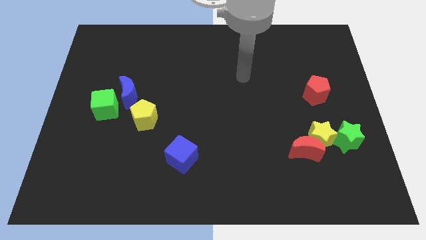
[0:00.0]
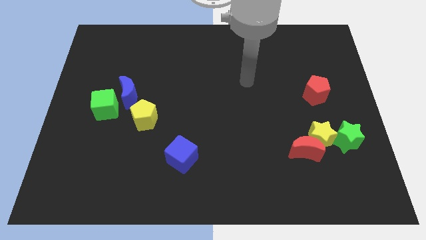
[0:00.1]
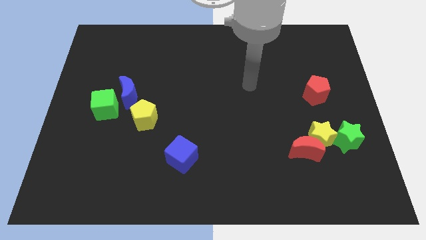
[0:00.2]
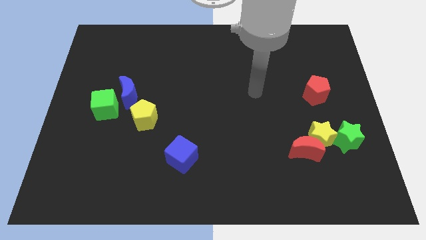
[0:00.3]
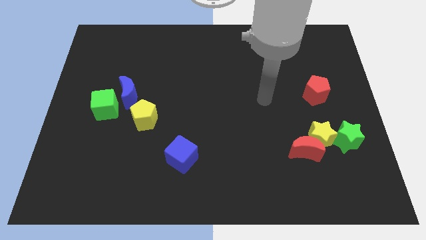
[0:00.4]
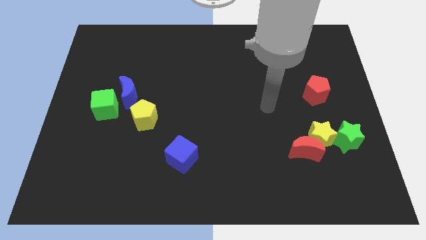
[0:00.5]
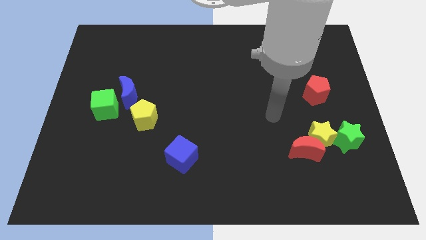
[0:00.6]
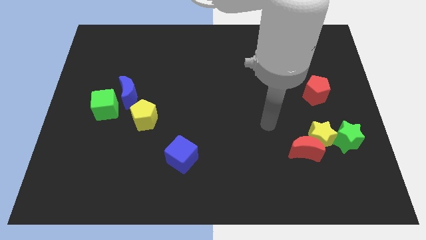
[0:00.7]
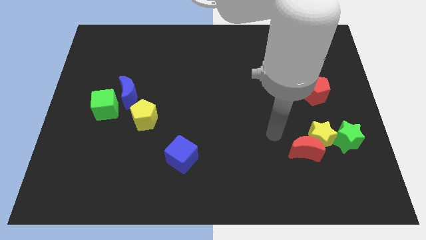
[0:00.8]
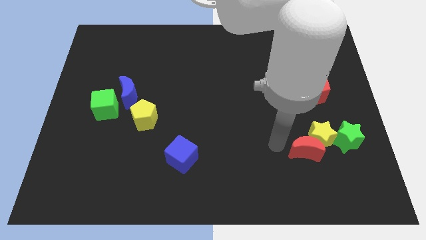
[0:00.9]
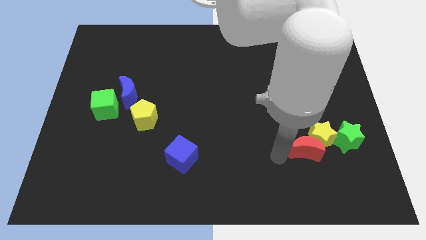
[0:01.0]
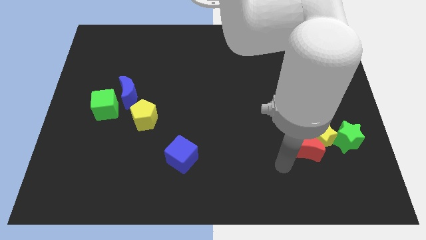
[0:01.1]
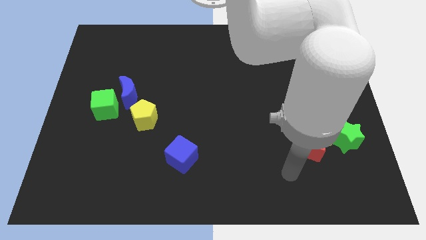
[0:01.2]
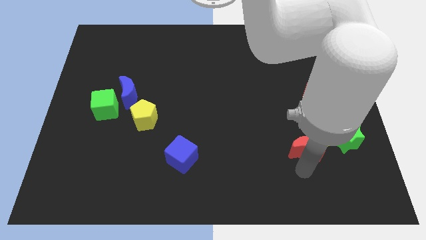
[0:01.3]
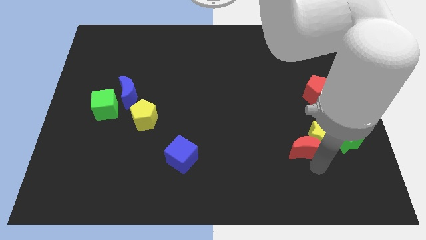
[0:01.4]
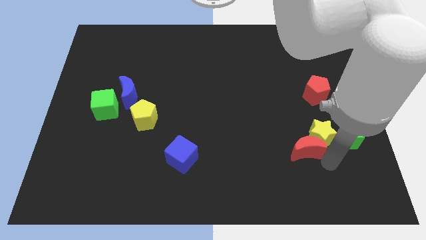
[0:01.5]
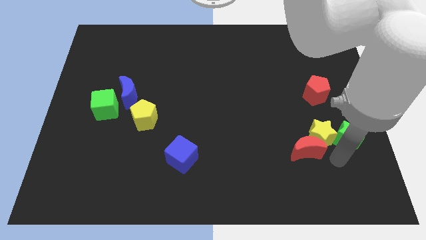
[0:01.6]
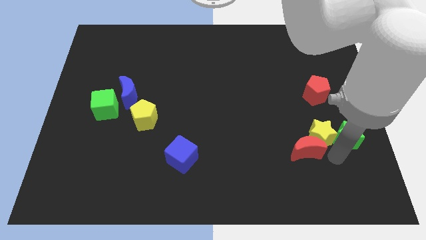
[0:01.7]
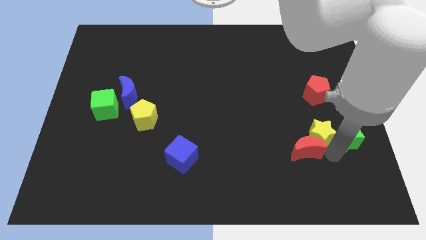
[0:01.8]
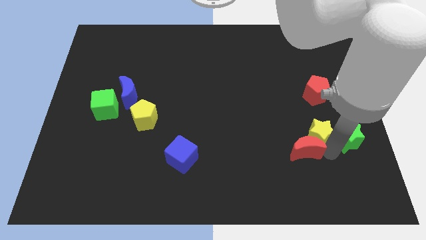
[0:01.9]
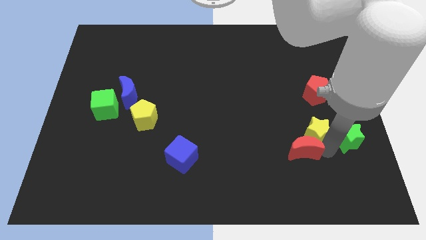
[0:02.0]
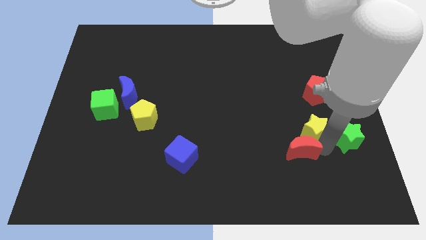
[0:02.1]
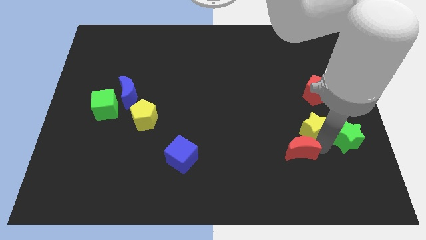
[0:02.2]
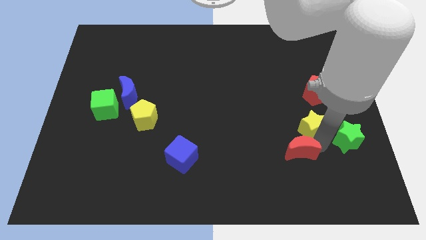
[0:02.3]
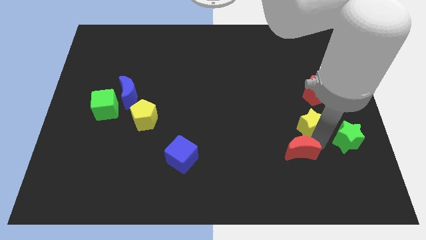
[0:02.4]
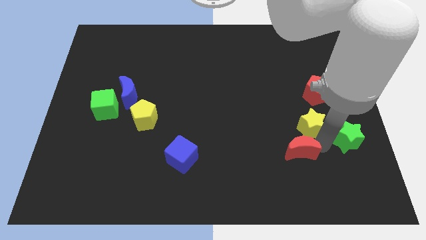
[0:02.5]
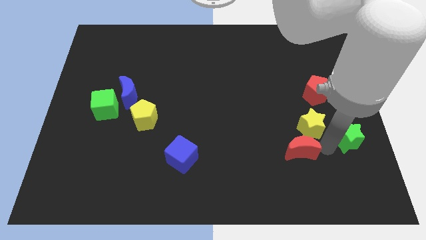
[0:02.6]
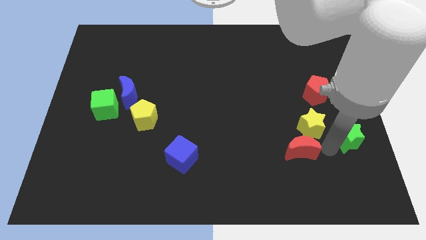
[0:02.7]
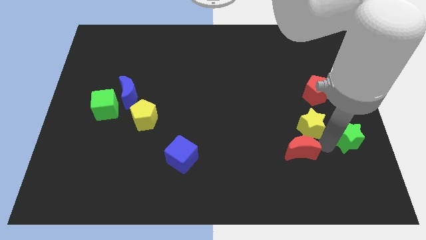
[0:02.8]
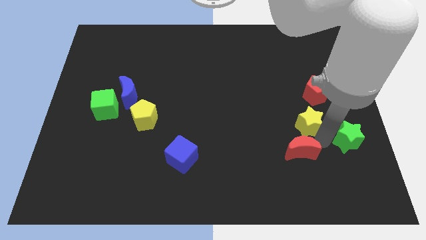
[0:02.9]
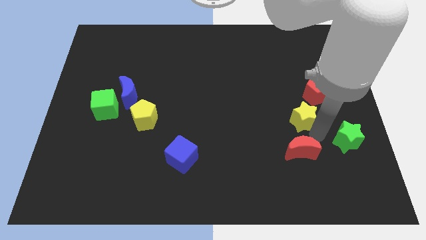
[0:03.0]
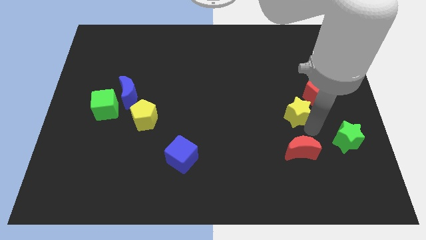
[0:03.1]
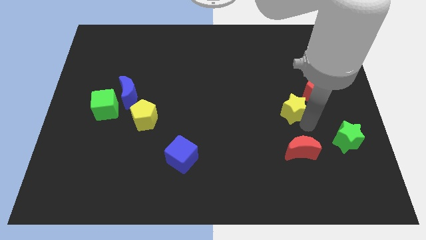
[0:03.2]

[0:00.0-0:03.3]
separate the yellow star from the red moon and green star

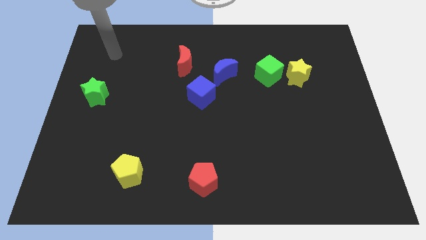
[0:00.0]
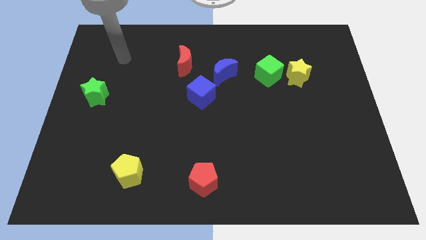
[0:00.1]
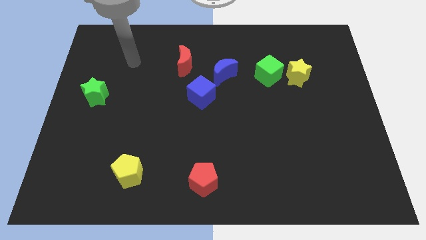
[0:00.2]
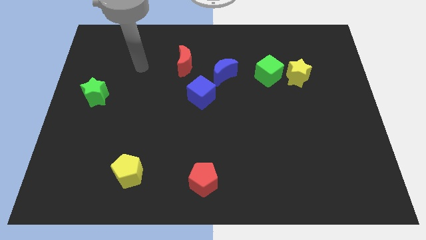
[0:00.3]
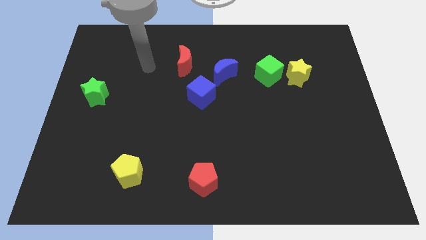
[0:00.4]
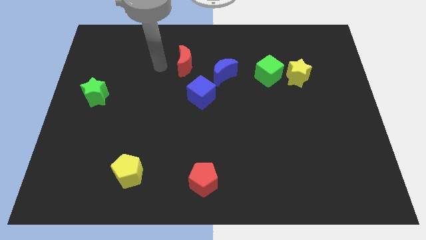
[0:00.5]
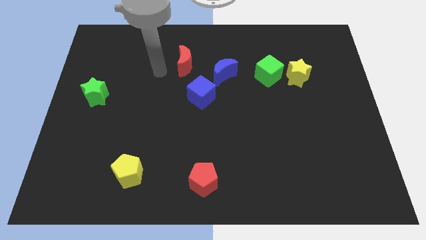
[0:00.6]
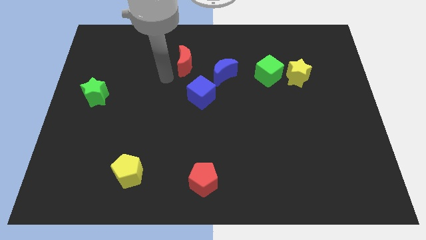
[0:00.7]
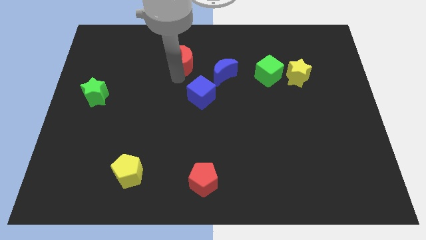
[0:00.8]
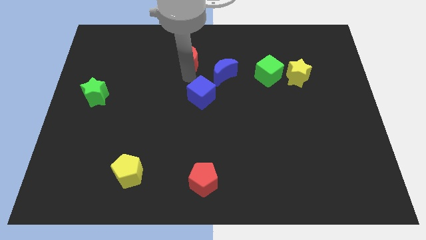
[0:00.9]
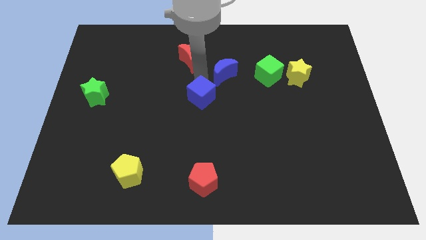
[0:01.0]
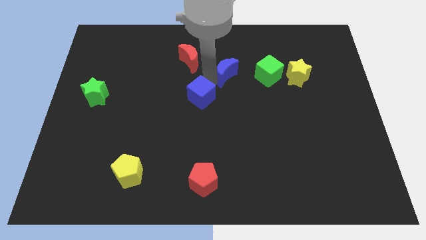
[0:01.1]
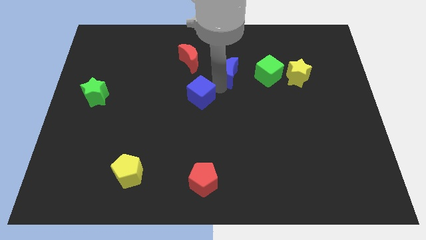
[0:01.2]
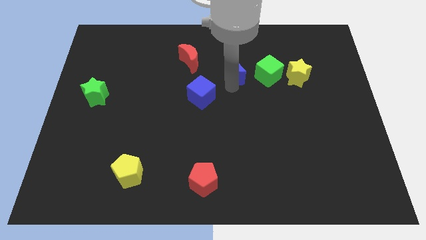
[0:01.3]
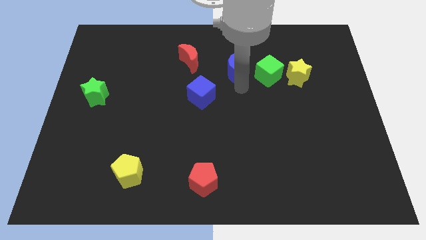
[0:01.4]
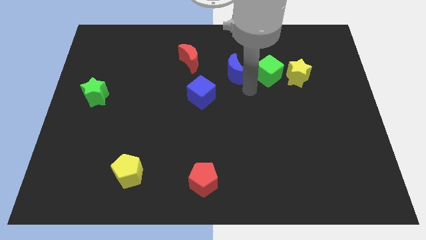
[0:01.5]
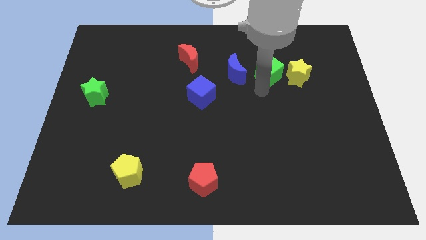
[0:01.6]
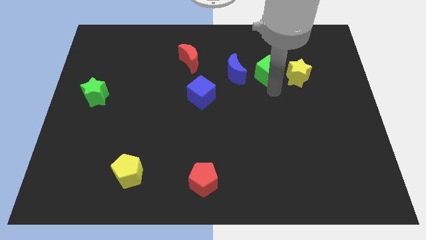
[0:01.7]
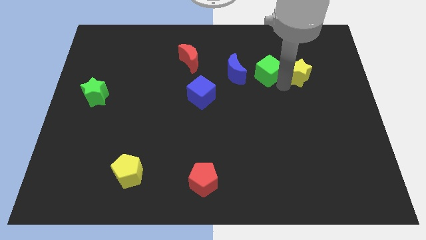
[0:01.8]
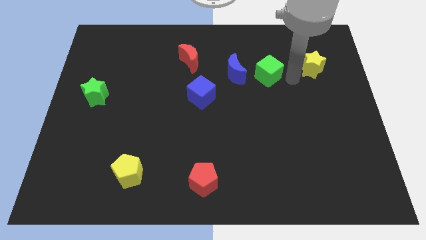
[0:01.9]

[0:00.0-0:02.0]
pull the green cube apart from the yellow star

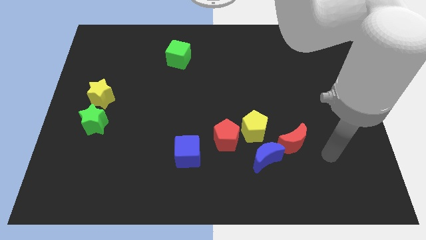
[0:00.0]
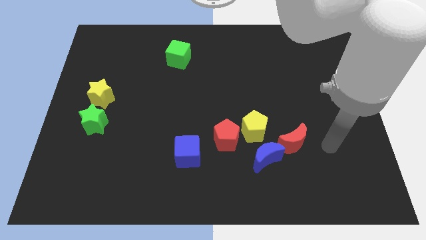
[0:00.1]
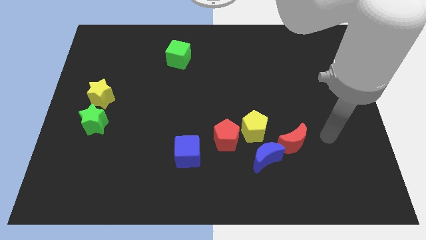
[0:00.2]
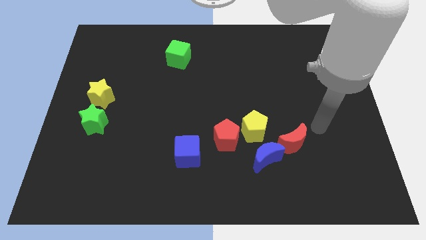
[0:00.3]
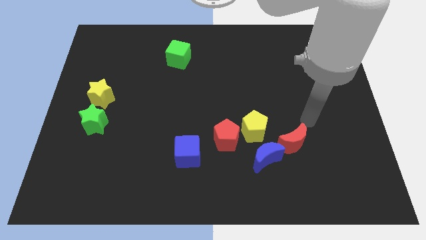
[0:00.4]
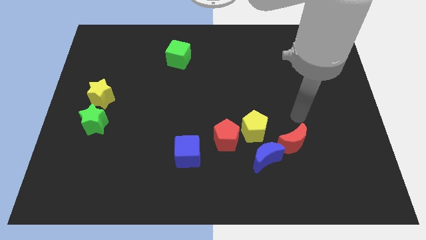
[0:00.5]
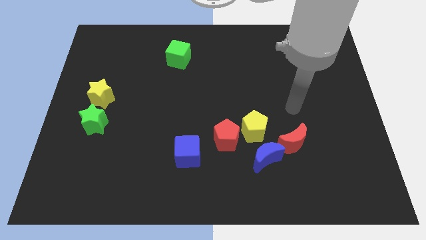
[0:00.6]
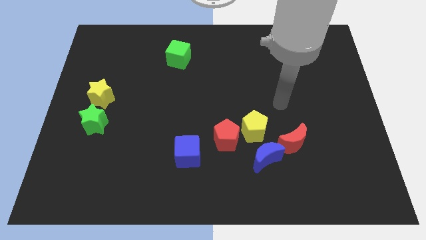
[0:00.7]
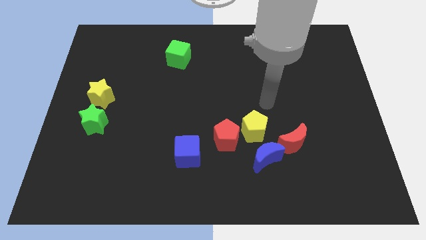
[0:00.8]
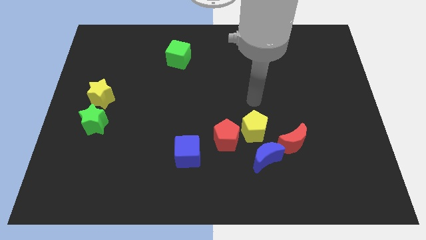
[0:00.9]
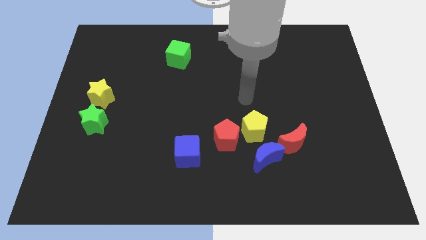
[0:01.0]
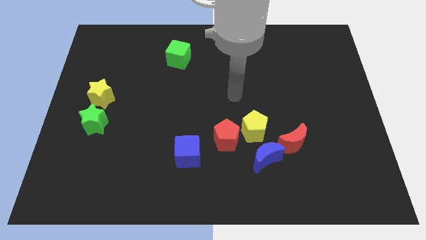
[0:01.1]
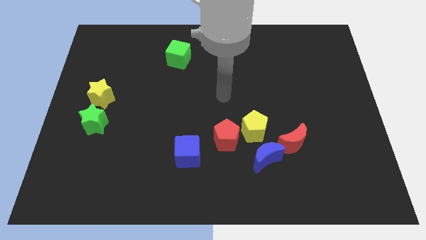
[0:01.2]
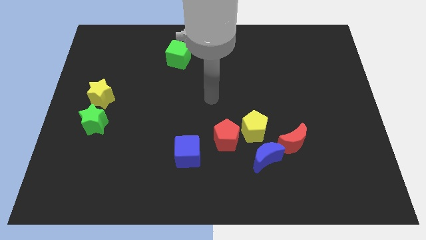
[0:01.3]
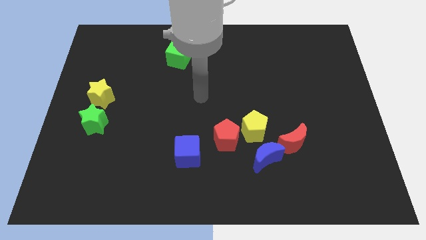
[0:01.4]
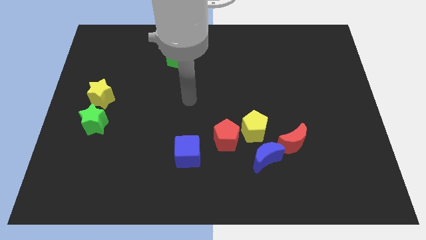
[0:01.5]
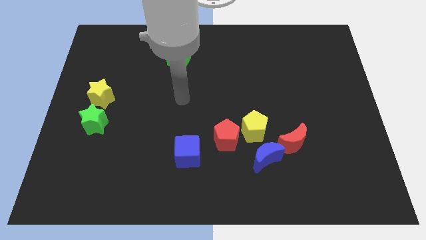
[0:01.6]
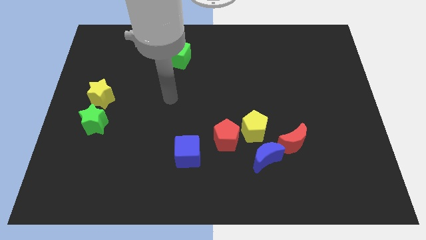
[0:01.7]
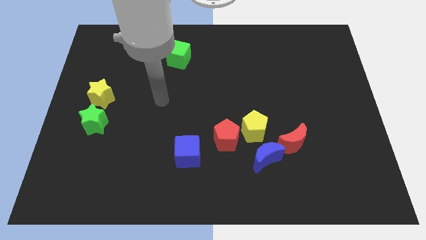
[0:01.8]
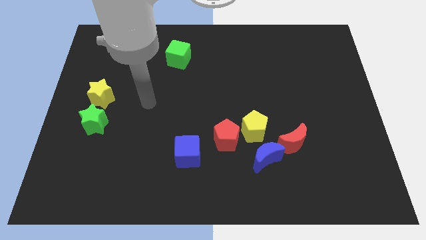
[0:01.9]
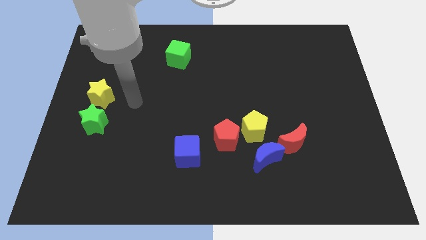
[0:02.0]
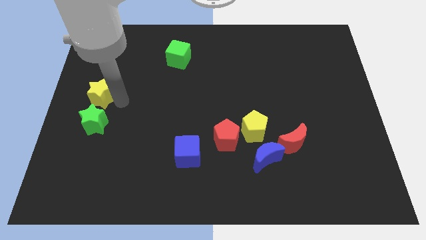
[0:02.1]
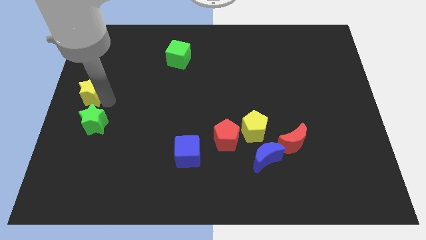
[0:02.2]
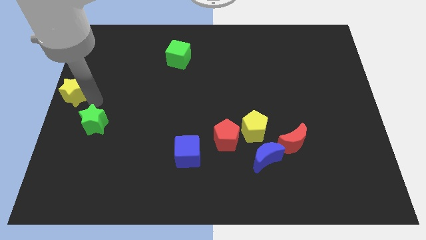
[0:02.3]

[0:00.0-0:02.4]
separate the green star from the yellow star

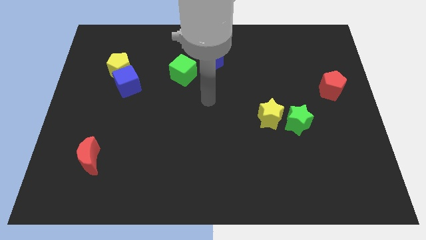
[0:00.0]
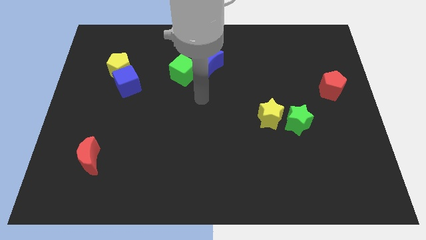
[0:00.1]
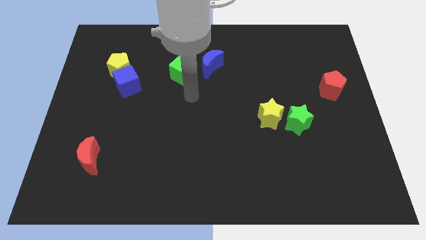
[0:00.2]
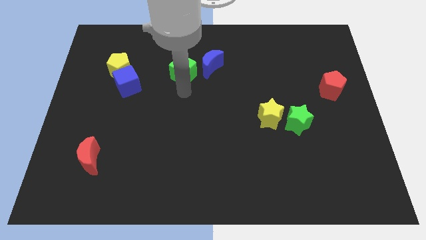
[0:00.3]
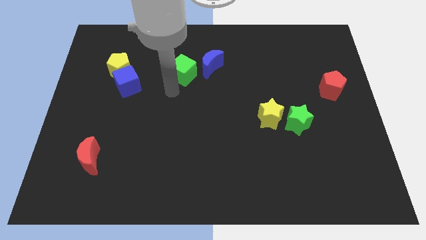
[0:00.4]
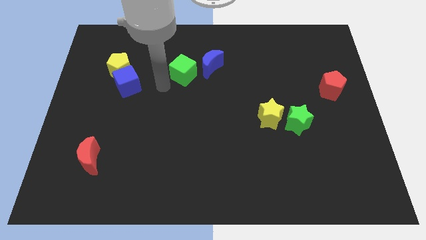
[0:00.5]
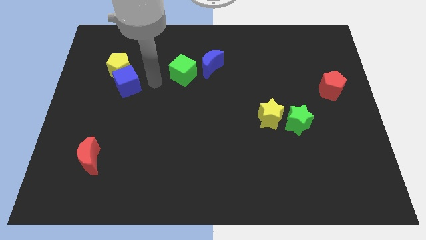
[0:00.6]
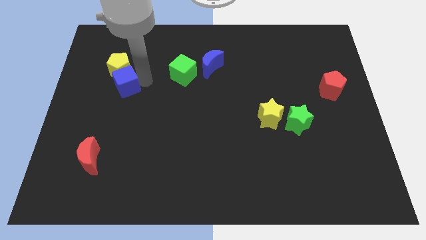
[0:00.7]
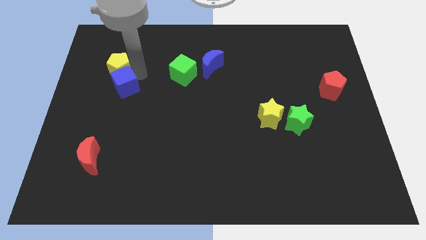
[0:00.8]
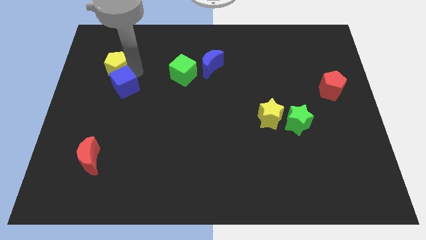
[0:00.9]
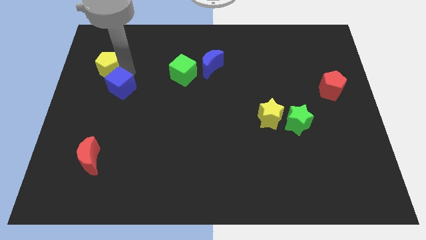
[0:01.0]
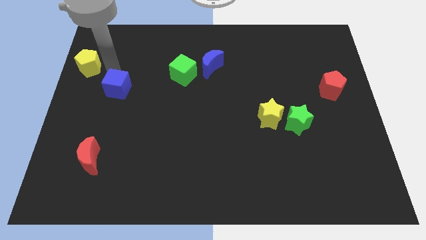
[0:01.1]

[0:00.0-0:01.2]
move the blue cube away from the yellow pentagon

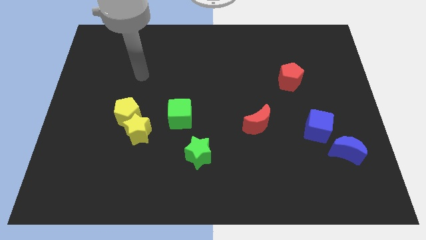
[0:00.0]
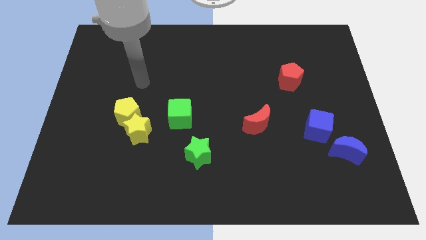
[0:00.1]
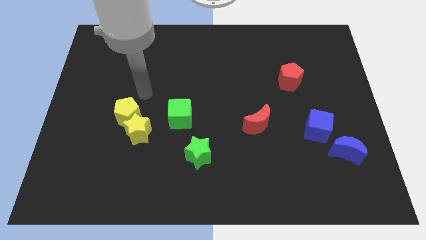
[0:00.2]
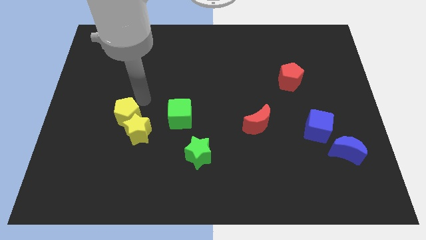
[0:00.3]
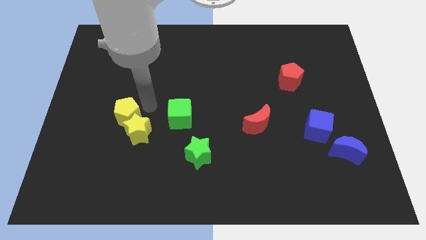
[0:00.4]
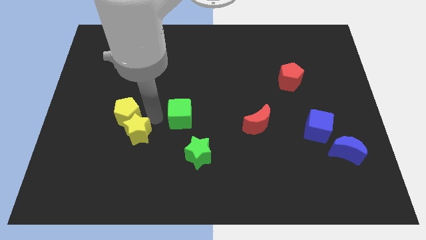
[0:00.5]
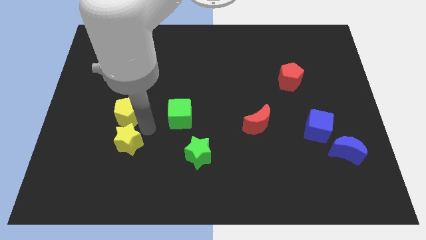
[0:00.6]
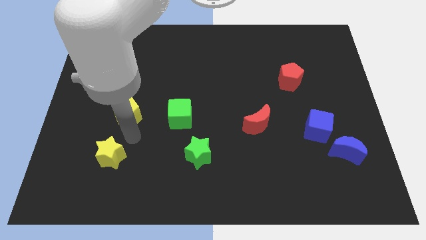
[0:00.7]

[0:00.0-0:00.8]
separate the yellow pentagon from the yellow star
